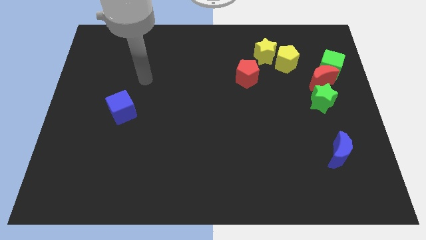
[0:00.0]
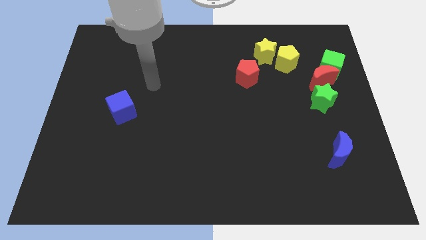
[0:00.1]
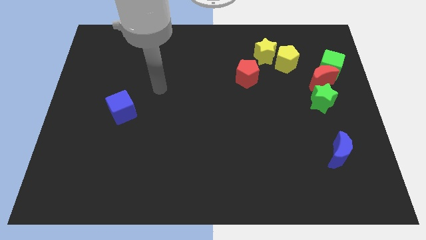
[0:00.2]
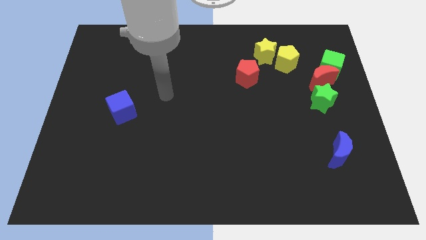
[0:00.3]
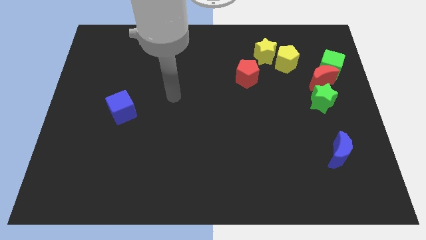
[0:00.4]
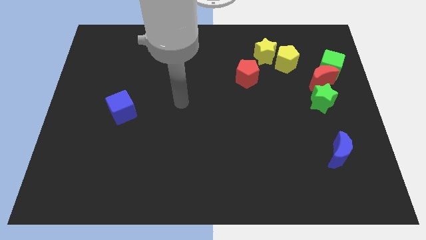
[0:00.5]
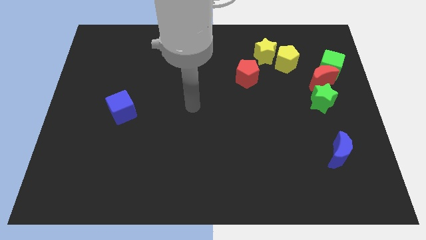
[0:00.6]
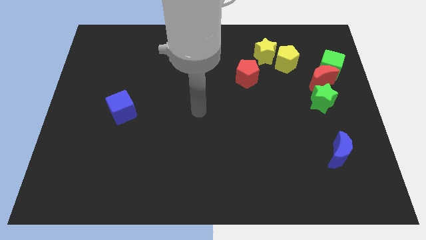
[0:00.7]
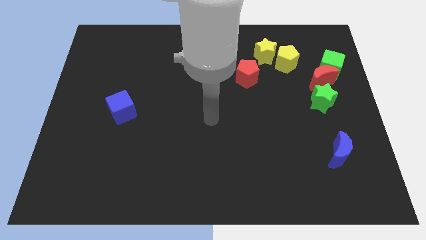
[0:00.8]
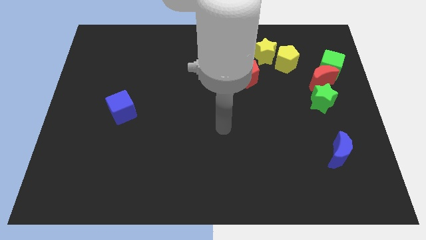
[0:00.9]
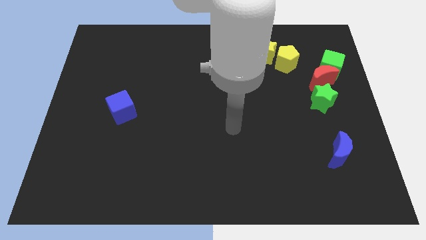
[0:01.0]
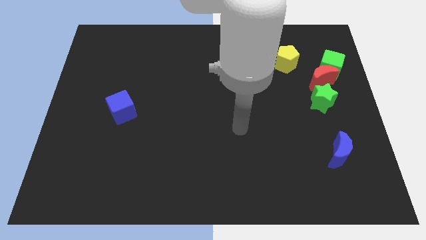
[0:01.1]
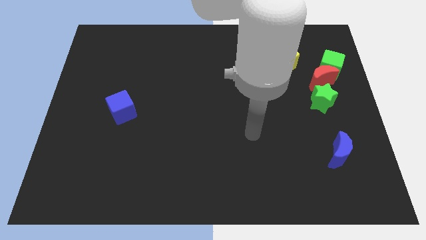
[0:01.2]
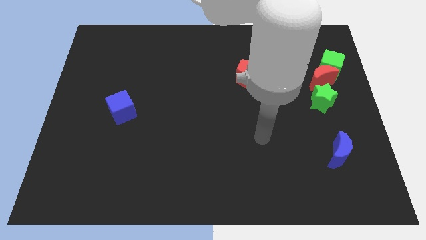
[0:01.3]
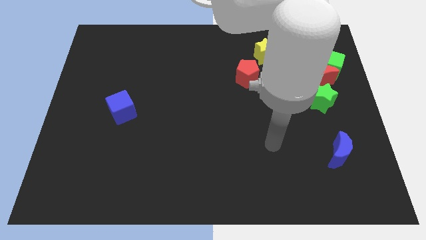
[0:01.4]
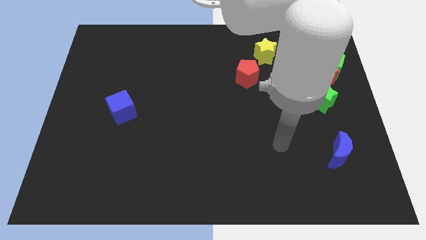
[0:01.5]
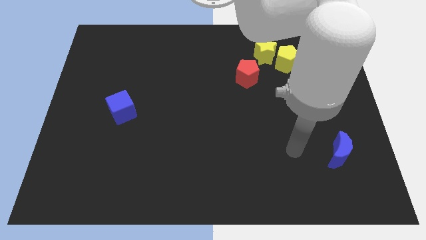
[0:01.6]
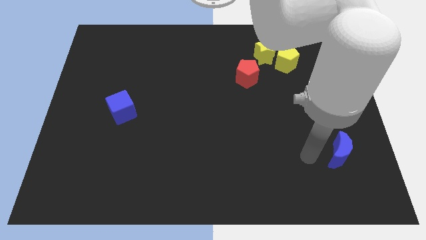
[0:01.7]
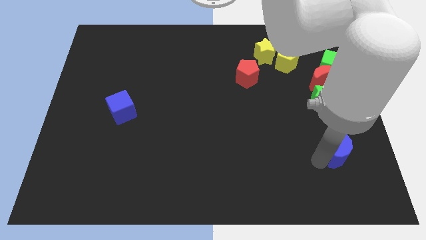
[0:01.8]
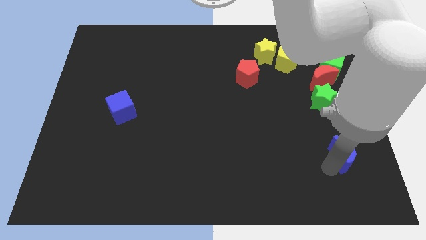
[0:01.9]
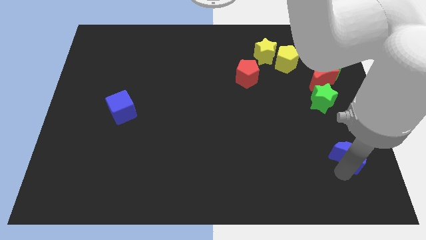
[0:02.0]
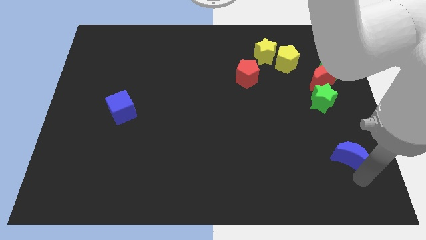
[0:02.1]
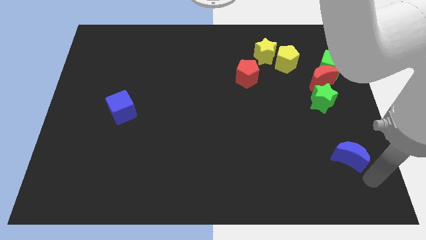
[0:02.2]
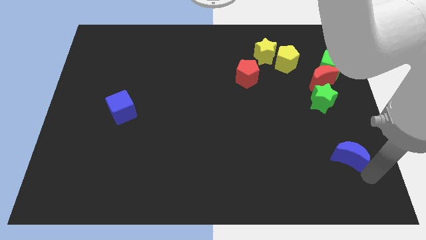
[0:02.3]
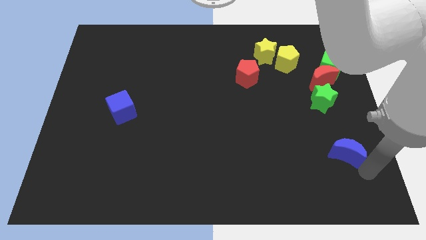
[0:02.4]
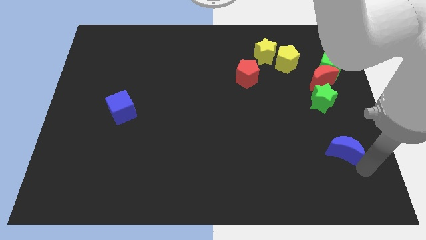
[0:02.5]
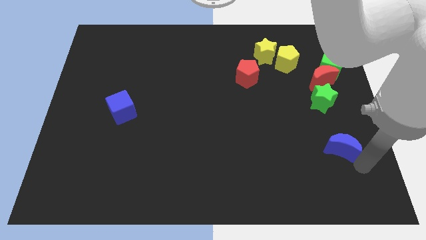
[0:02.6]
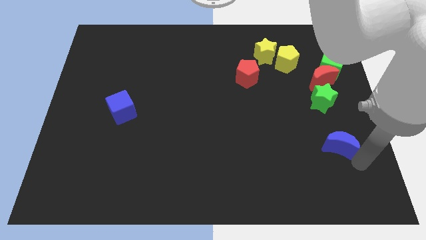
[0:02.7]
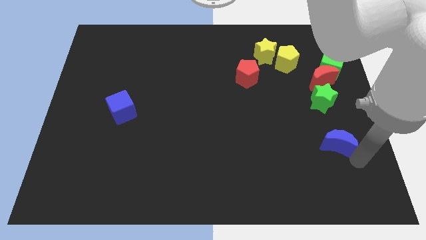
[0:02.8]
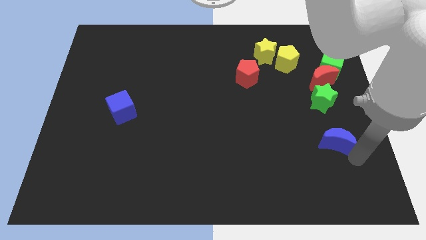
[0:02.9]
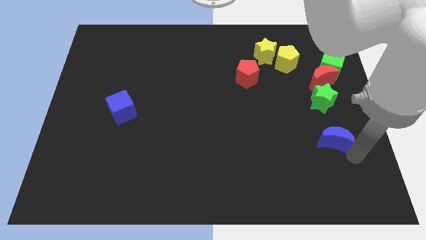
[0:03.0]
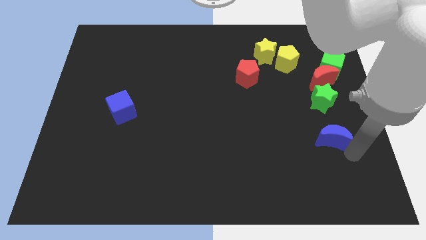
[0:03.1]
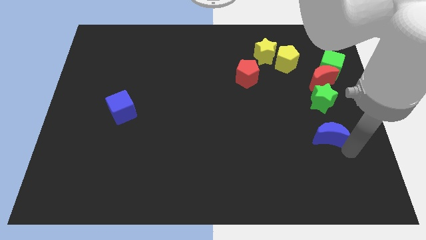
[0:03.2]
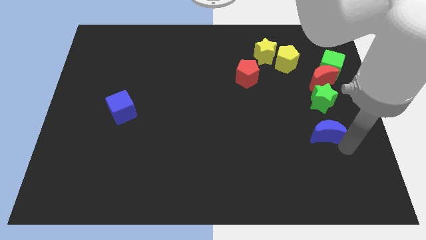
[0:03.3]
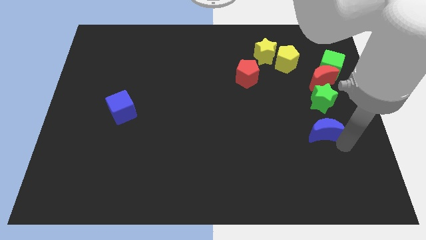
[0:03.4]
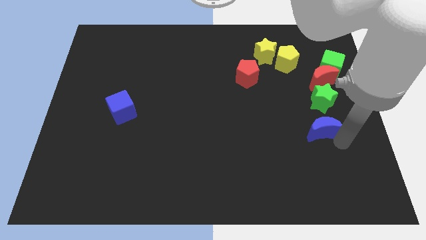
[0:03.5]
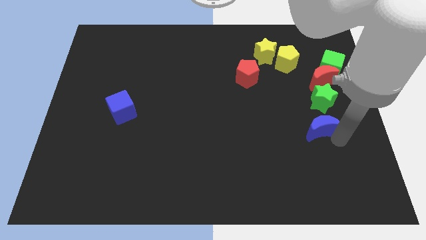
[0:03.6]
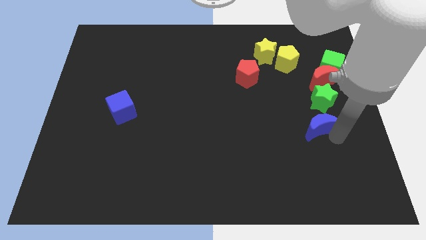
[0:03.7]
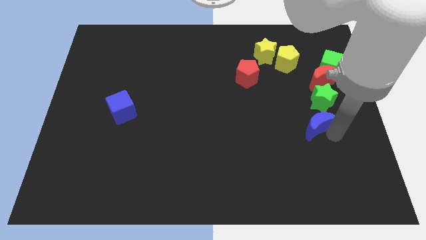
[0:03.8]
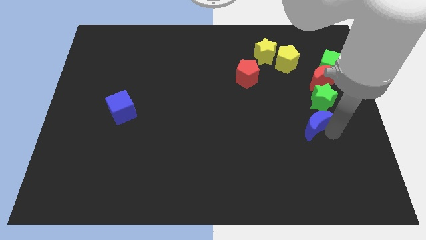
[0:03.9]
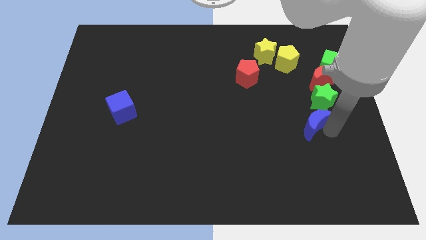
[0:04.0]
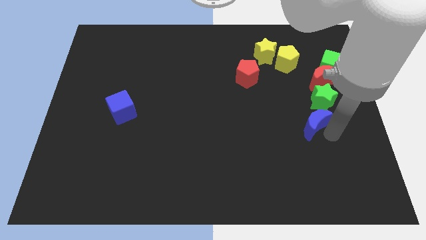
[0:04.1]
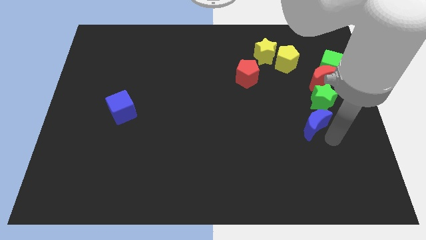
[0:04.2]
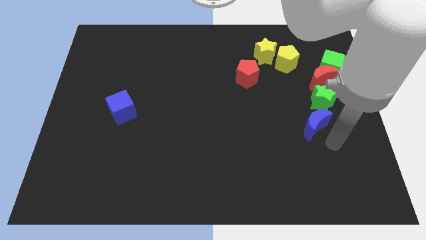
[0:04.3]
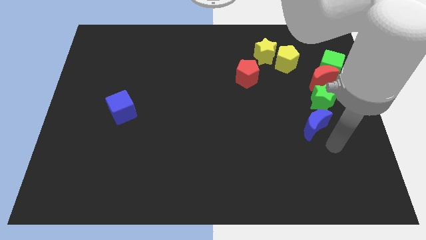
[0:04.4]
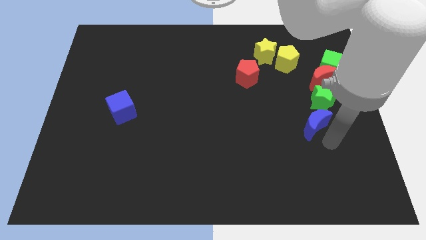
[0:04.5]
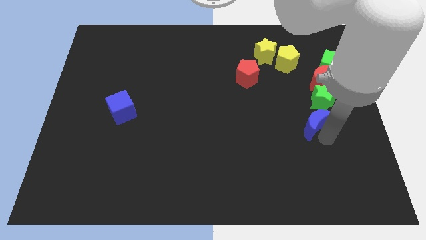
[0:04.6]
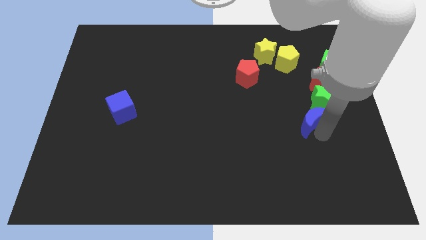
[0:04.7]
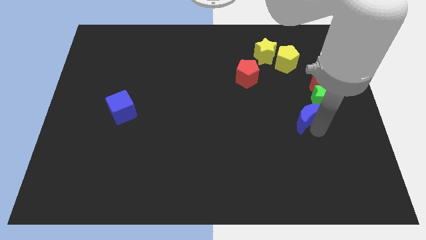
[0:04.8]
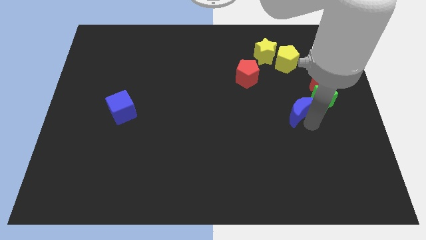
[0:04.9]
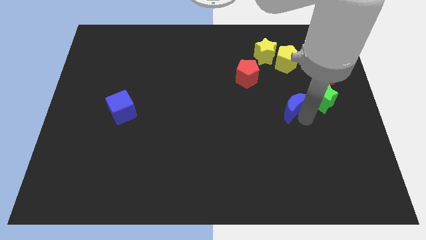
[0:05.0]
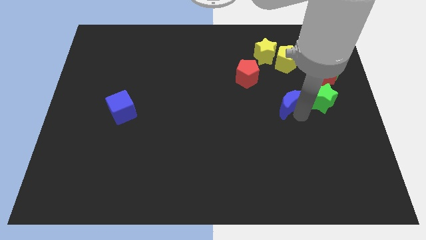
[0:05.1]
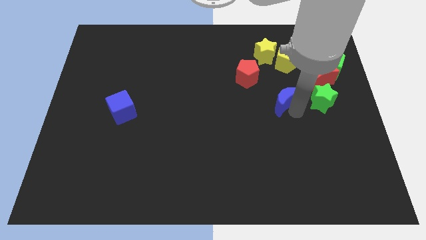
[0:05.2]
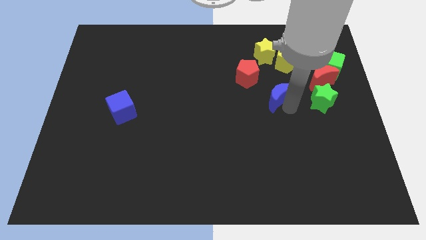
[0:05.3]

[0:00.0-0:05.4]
move the blue moon to the bottom side of the yellow star

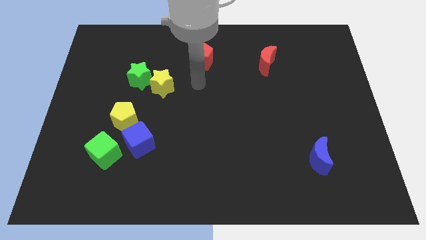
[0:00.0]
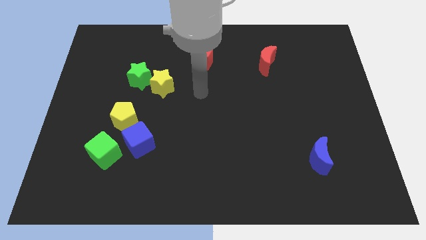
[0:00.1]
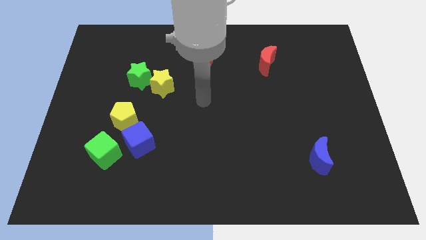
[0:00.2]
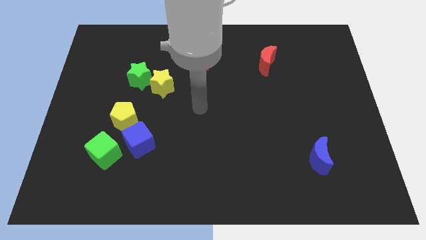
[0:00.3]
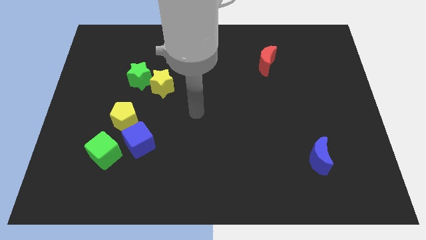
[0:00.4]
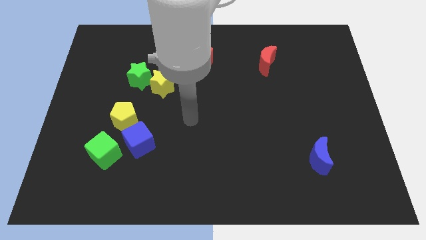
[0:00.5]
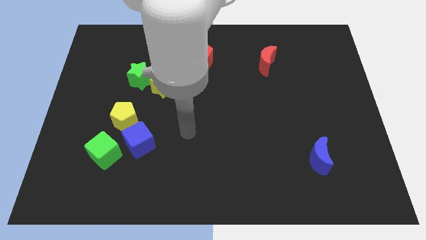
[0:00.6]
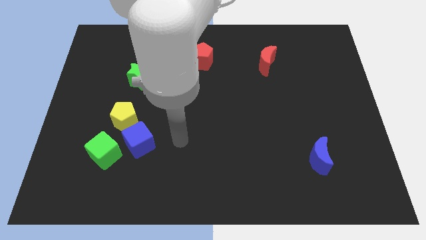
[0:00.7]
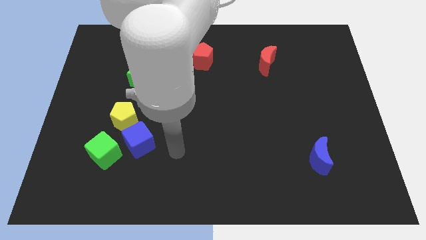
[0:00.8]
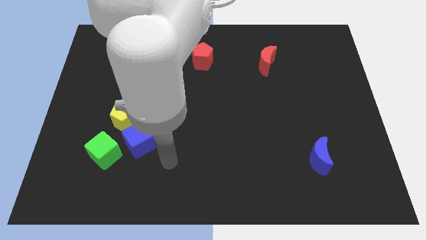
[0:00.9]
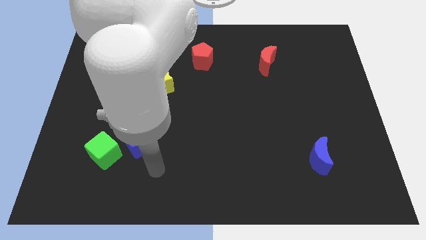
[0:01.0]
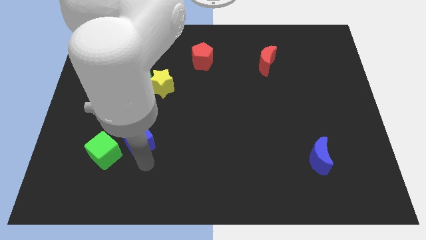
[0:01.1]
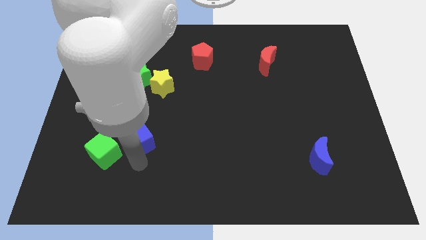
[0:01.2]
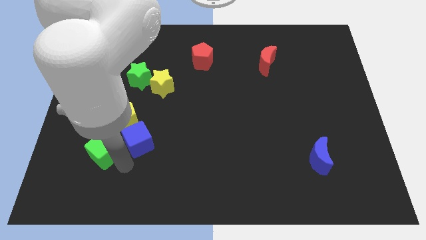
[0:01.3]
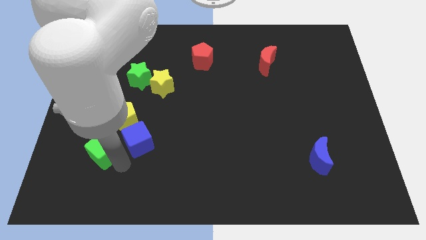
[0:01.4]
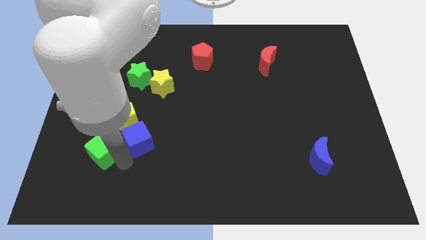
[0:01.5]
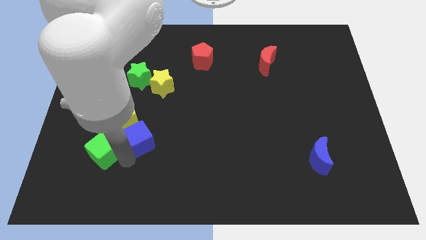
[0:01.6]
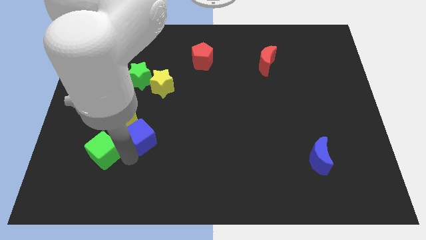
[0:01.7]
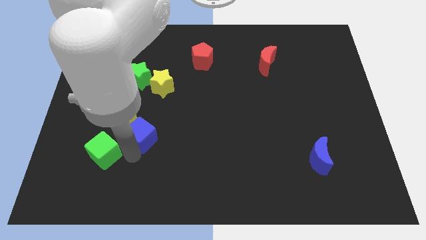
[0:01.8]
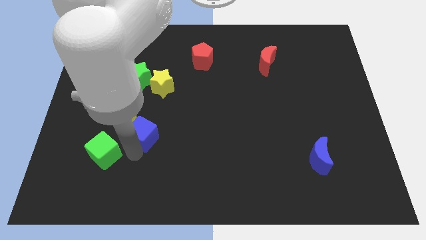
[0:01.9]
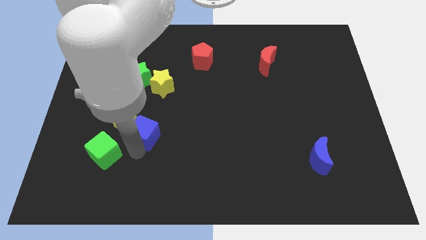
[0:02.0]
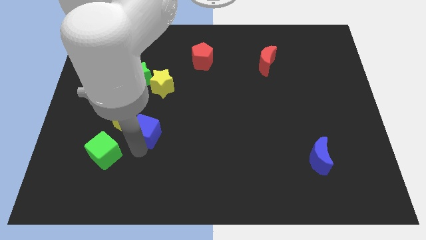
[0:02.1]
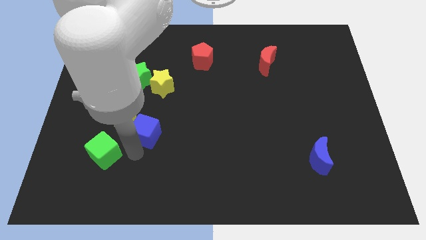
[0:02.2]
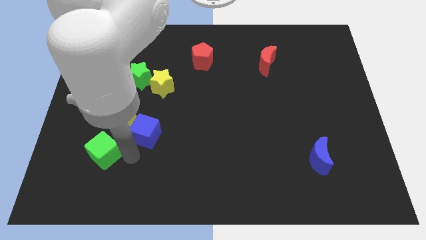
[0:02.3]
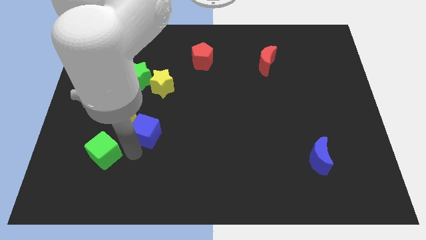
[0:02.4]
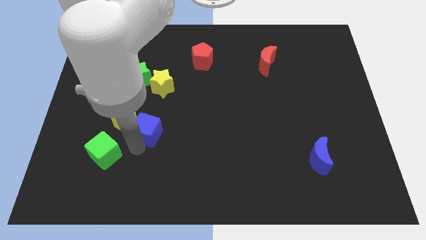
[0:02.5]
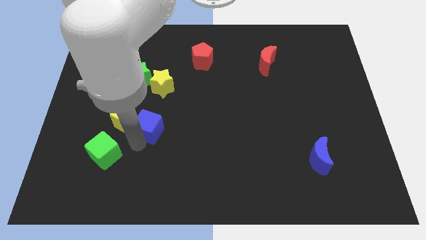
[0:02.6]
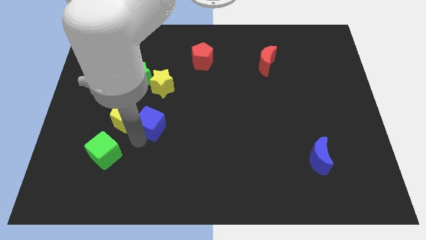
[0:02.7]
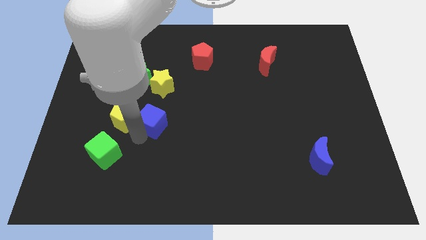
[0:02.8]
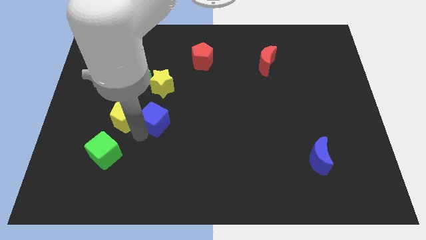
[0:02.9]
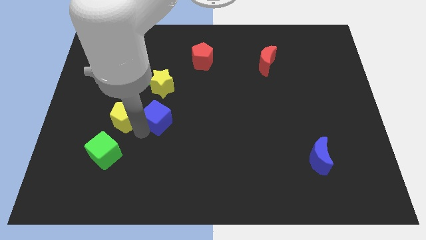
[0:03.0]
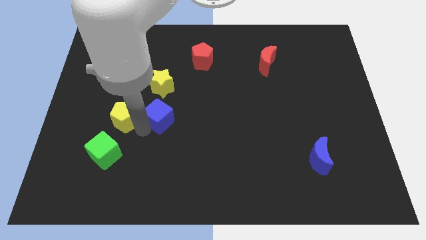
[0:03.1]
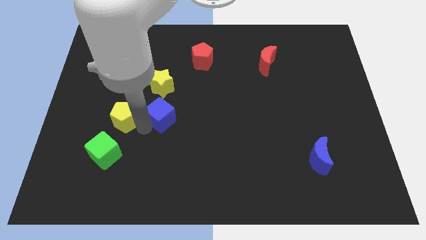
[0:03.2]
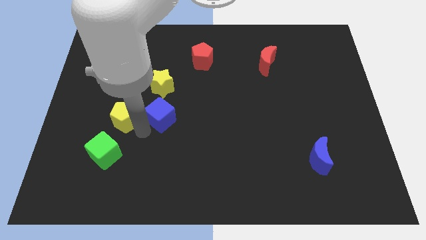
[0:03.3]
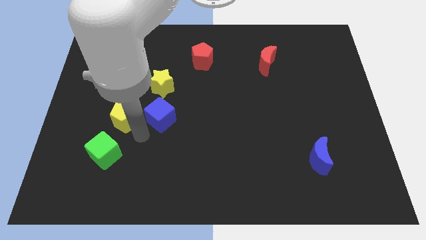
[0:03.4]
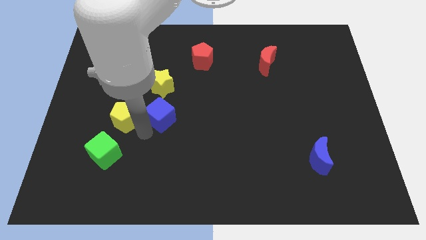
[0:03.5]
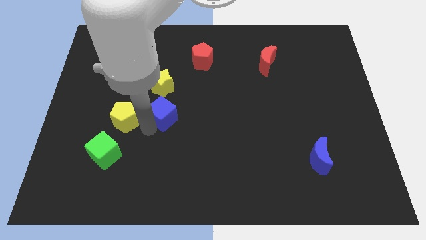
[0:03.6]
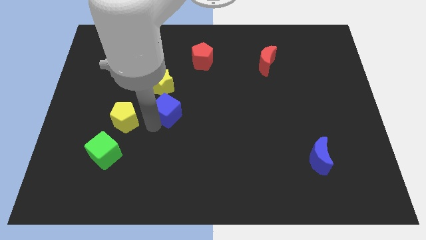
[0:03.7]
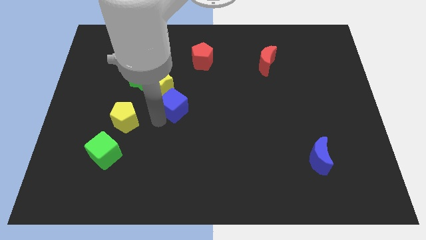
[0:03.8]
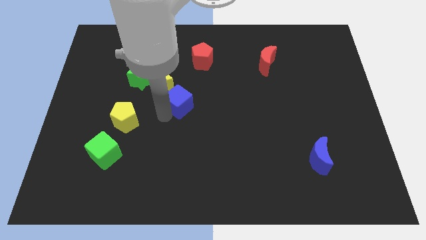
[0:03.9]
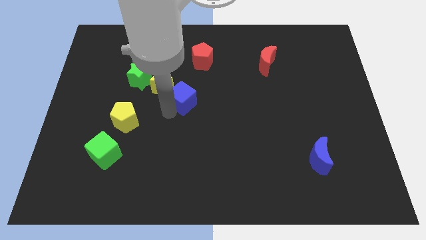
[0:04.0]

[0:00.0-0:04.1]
push the blue cube to the right side of the yellow star
